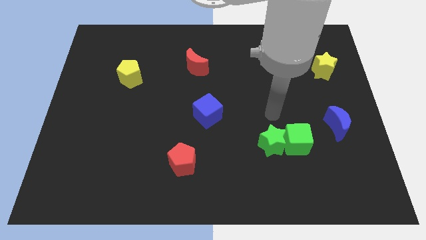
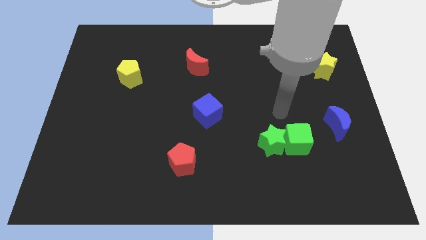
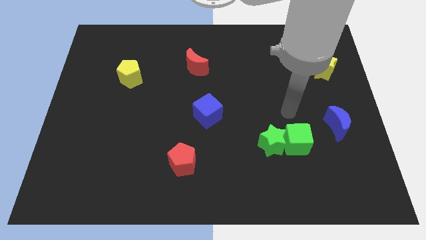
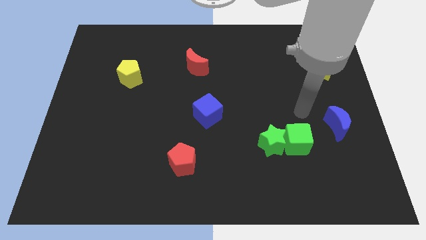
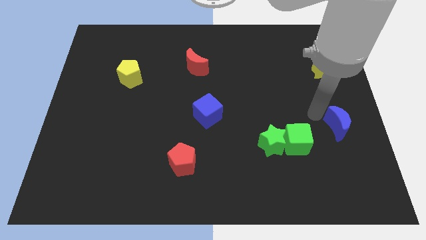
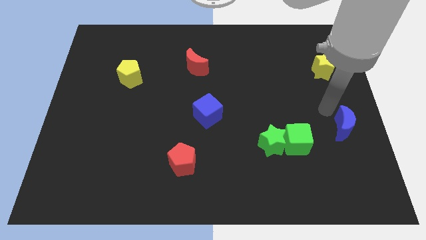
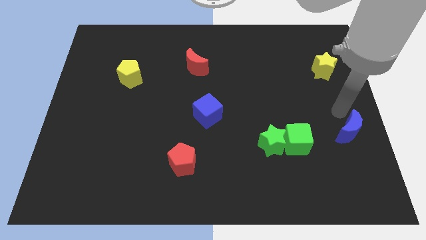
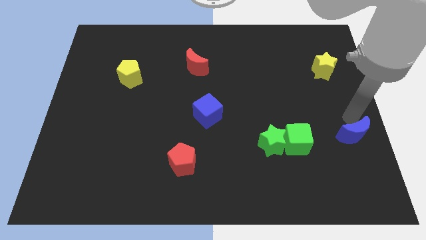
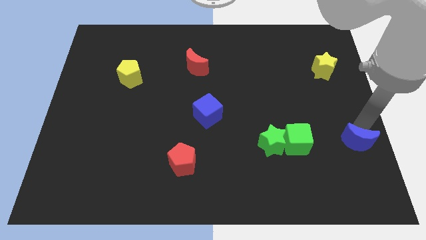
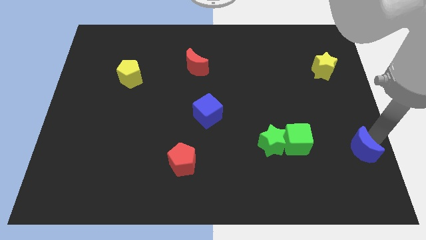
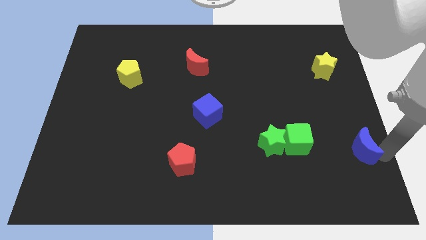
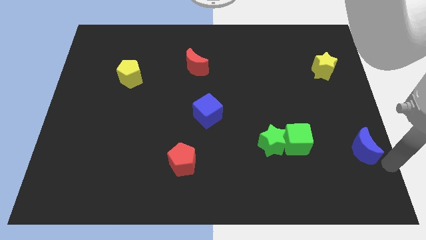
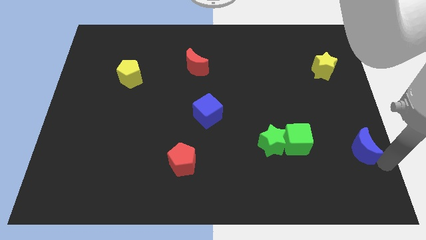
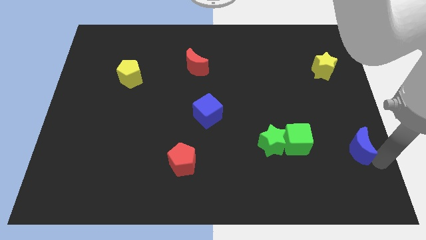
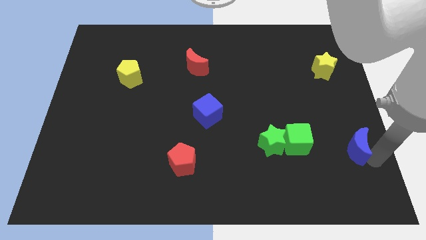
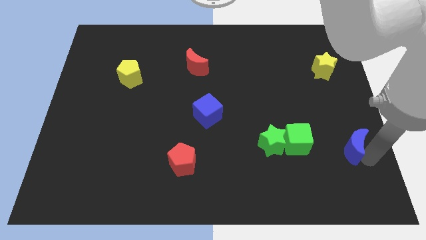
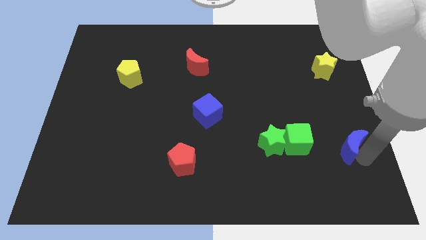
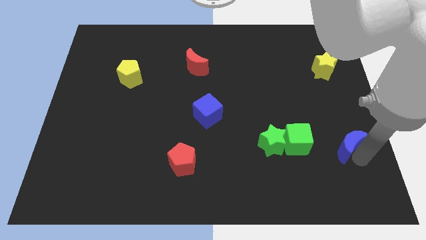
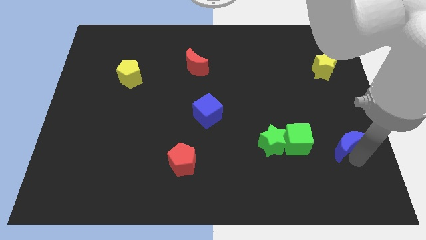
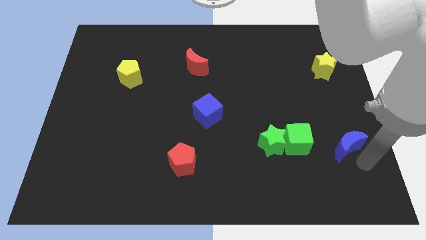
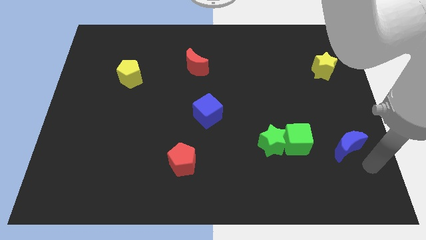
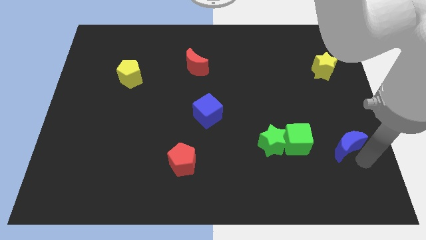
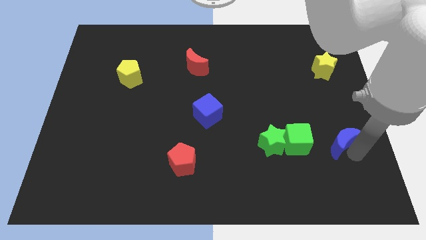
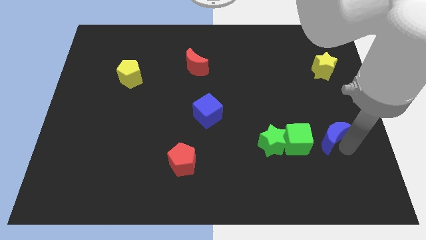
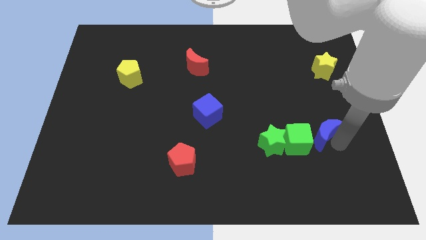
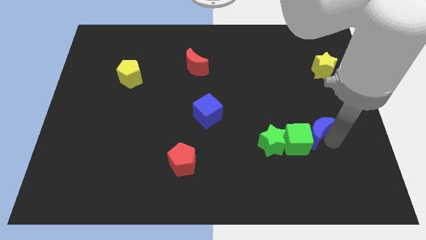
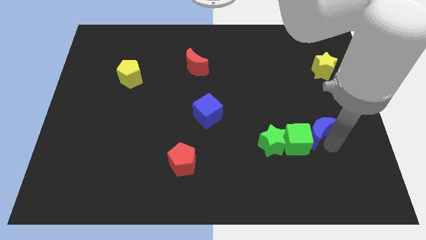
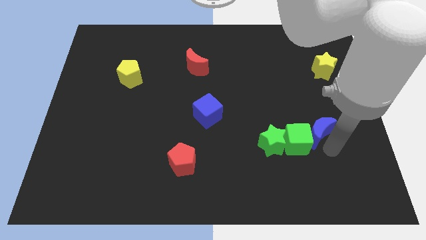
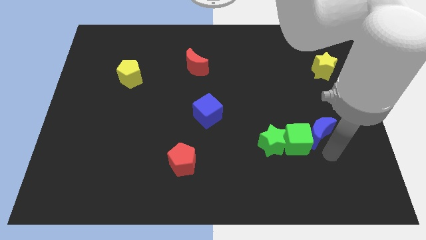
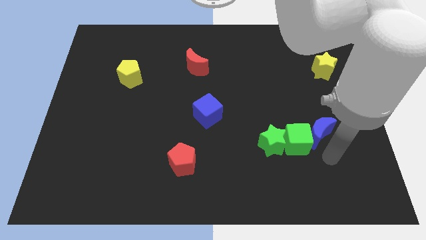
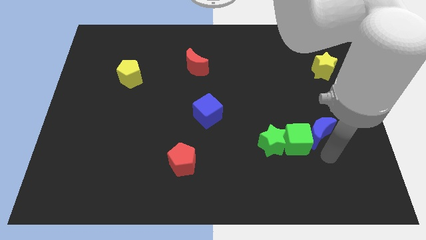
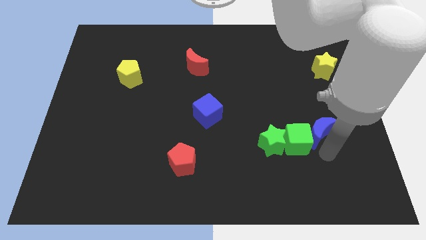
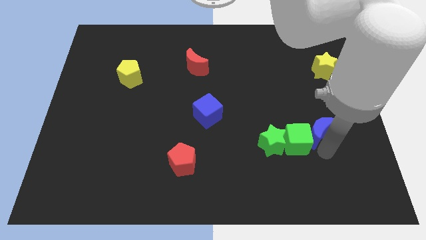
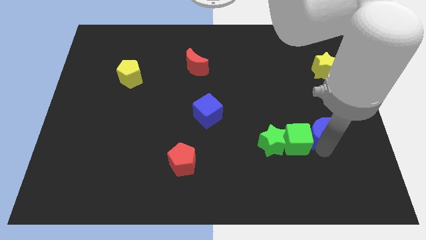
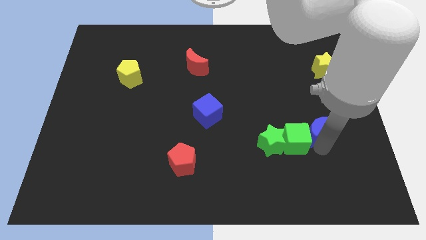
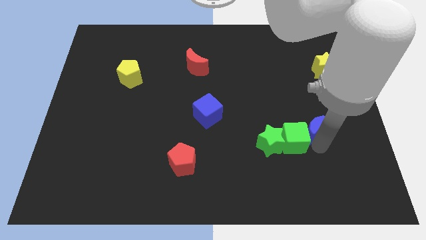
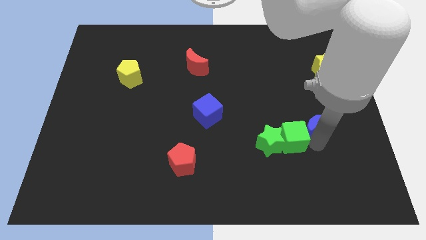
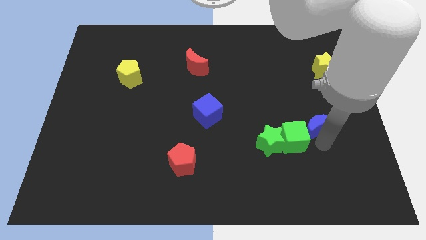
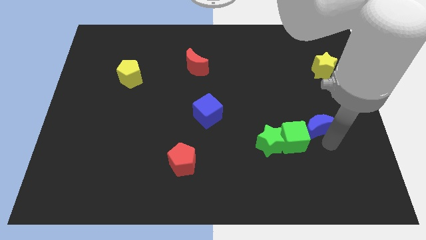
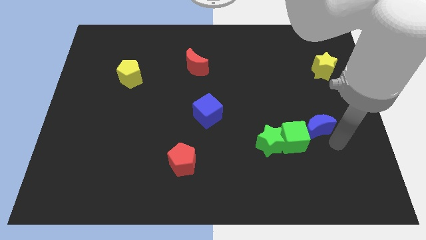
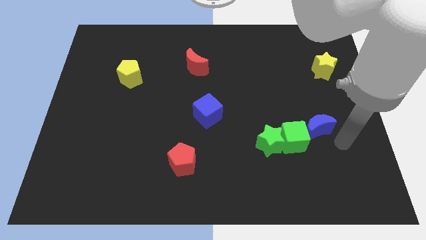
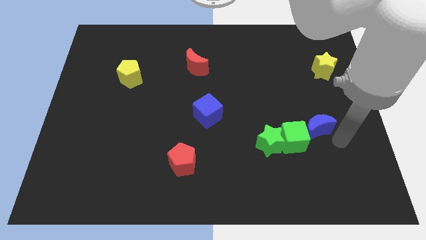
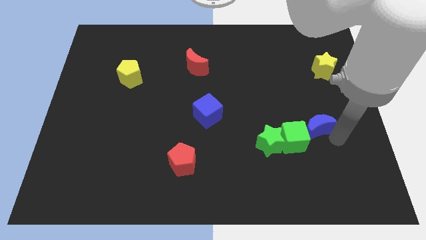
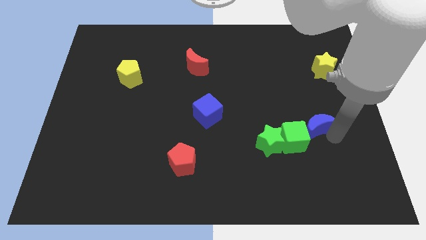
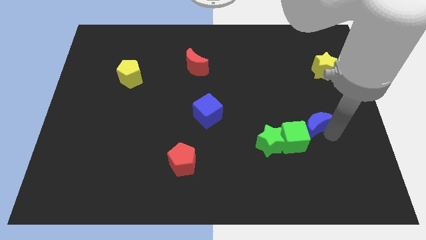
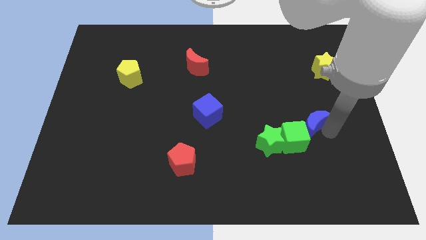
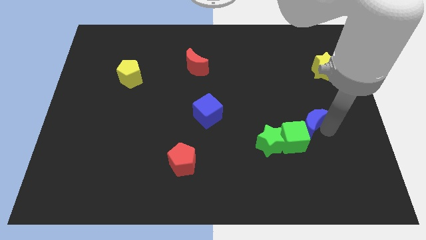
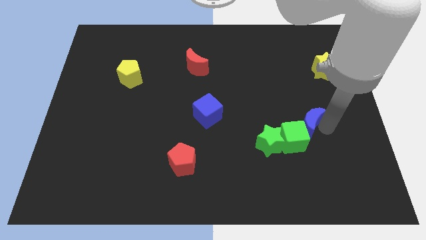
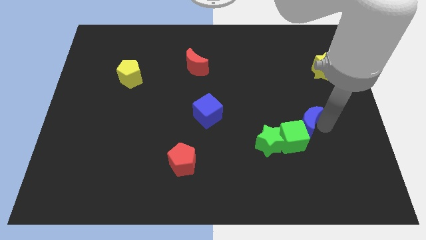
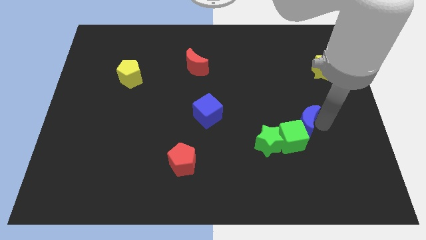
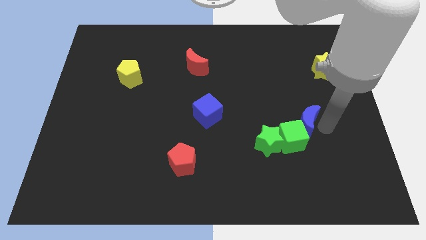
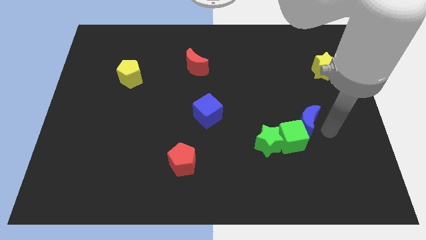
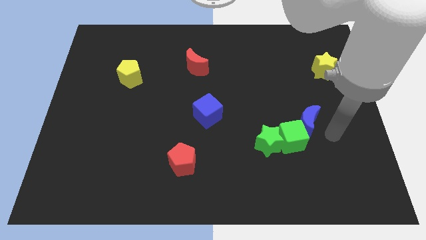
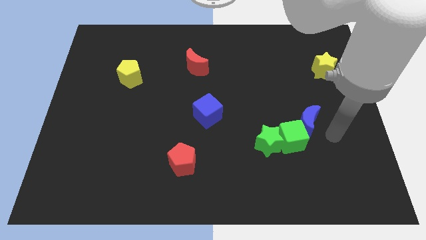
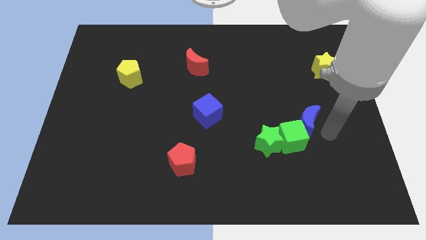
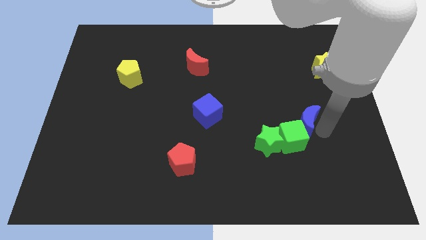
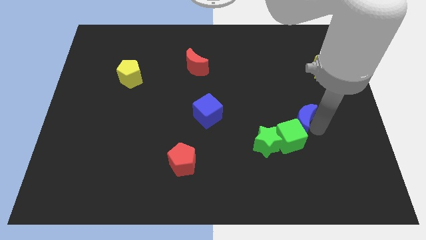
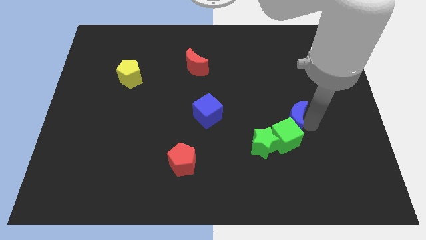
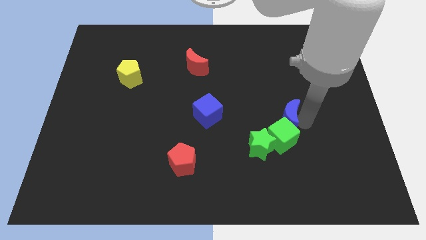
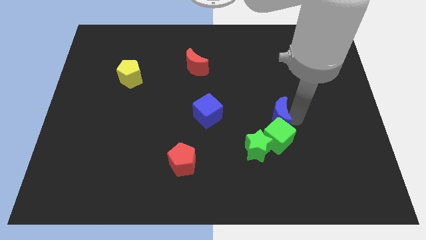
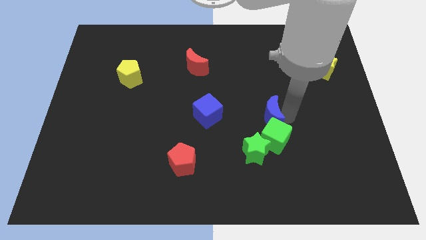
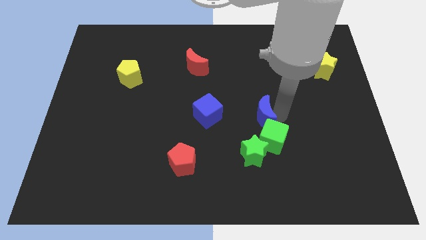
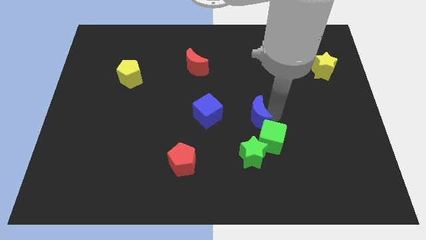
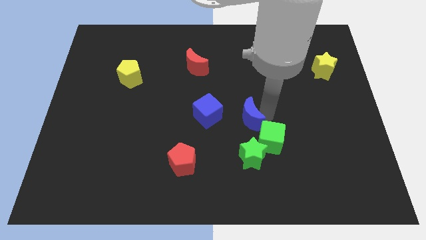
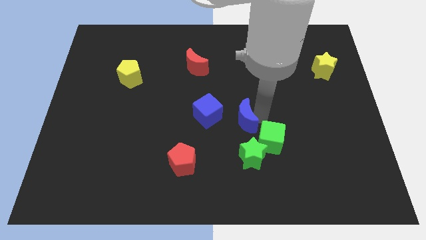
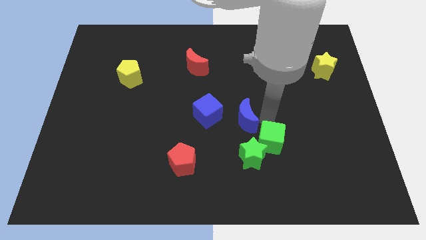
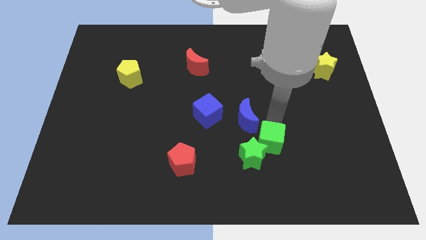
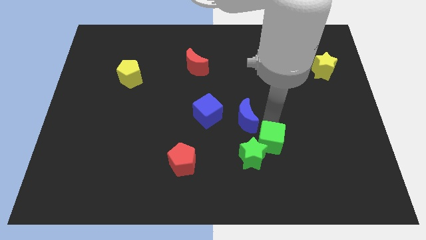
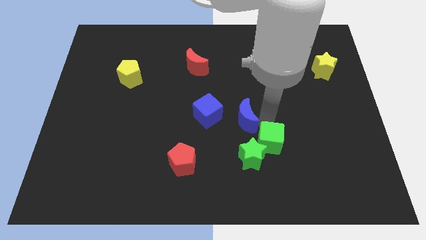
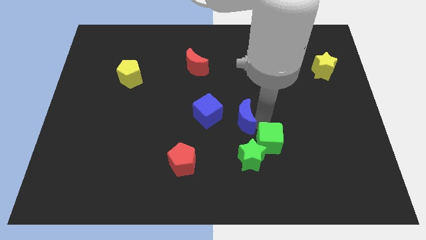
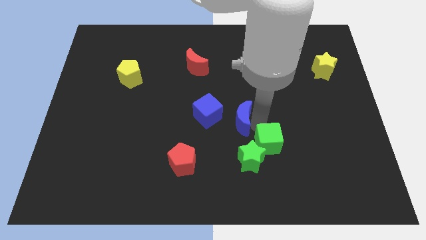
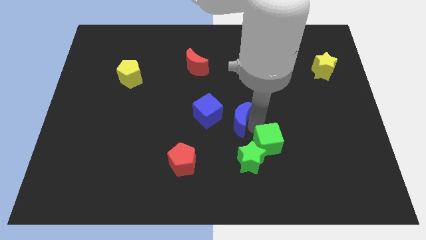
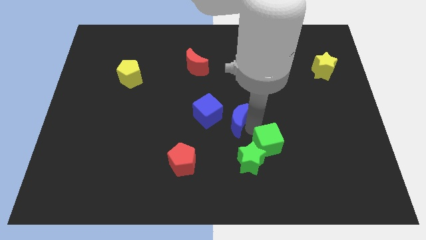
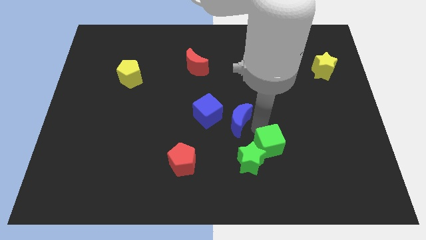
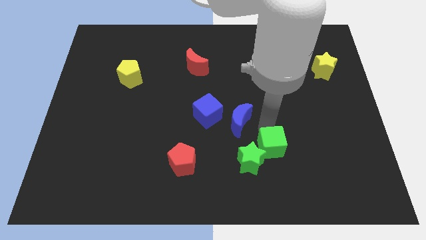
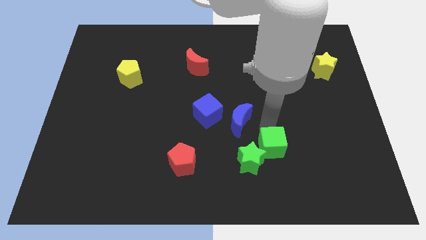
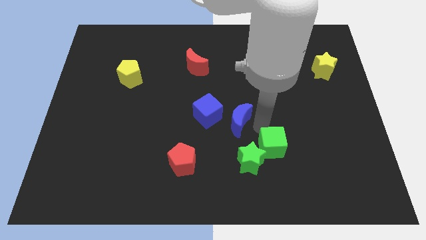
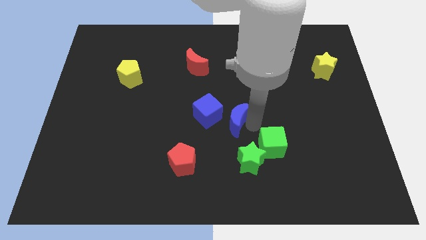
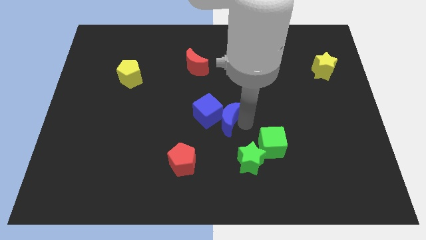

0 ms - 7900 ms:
slide the blue moon to the blue cube
